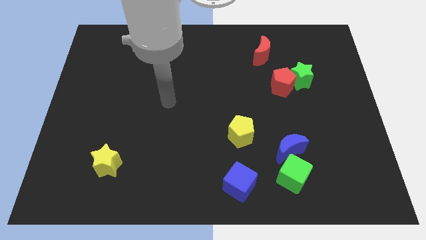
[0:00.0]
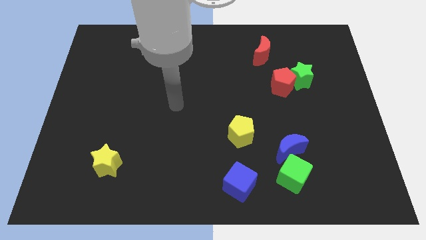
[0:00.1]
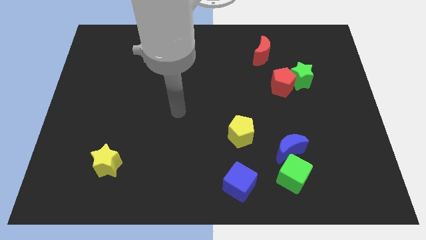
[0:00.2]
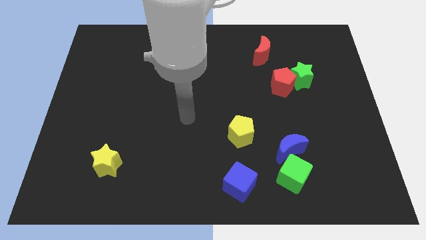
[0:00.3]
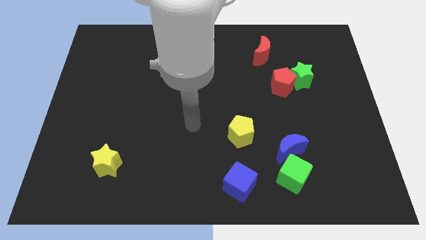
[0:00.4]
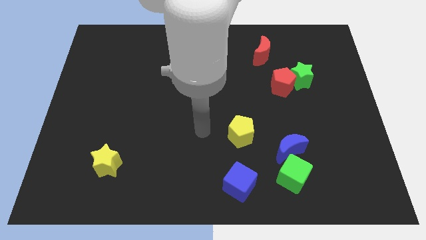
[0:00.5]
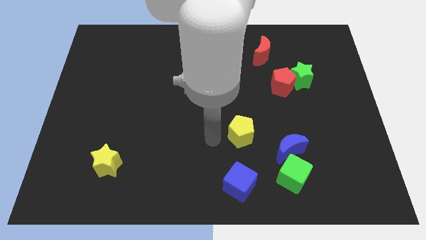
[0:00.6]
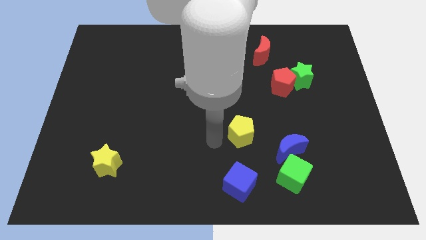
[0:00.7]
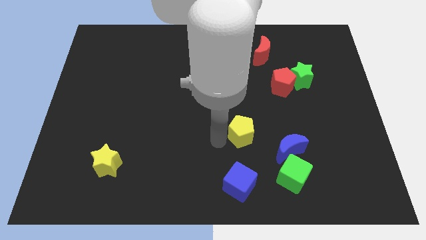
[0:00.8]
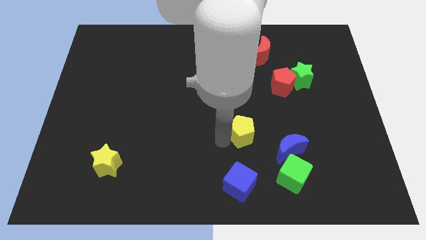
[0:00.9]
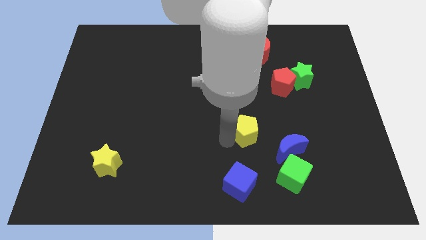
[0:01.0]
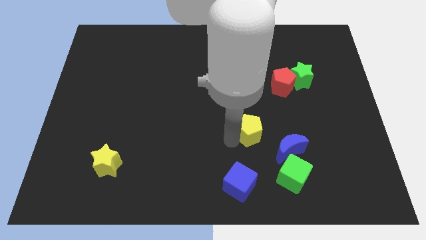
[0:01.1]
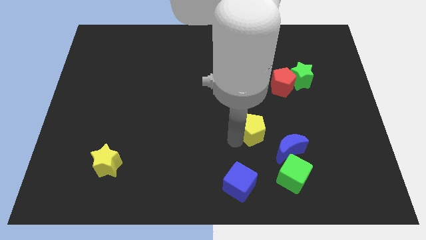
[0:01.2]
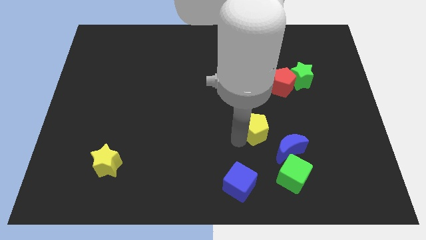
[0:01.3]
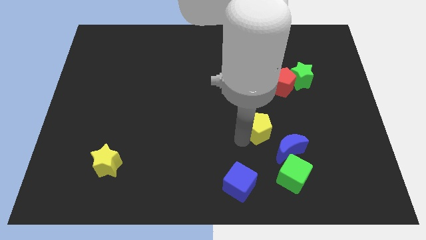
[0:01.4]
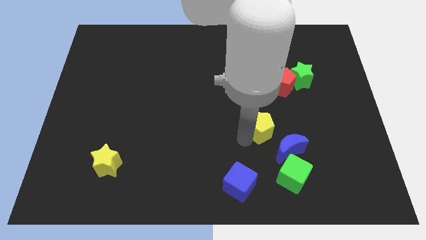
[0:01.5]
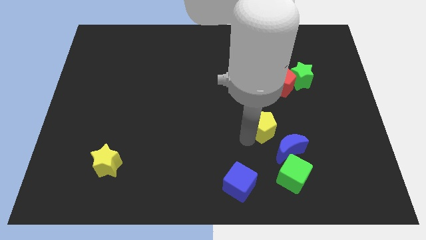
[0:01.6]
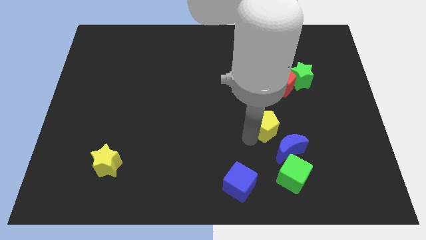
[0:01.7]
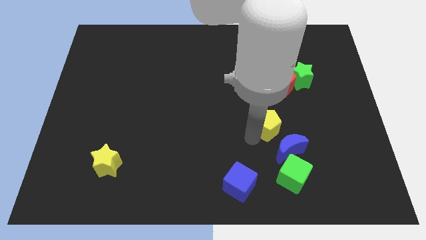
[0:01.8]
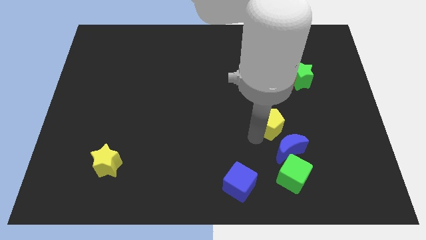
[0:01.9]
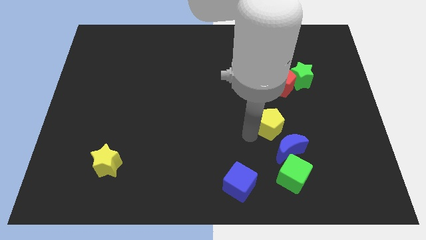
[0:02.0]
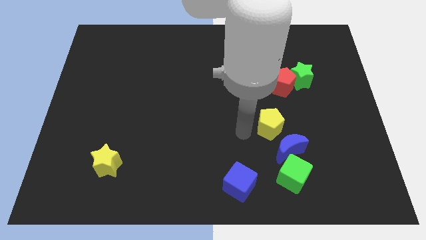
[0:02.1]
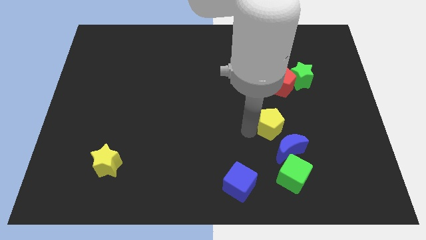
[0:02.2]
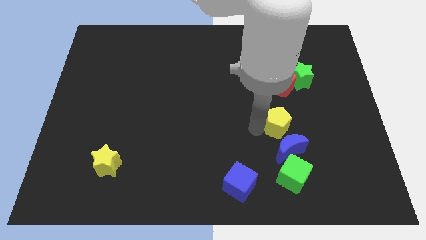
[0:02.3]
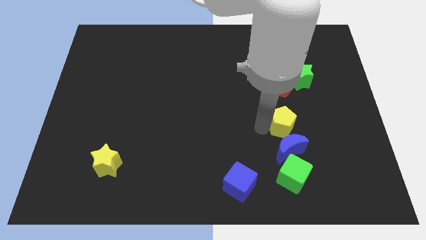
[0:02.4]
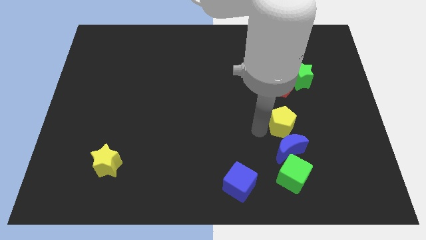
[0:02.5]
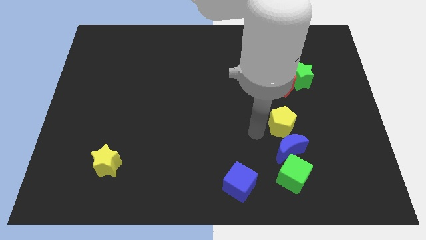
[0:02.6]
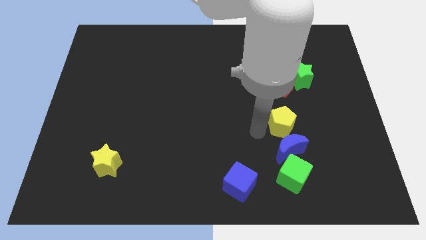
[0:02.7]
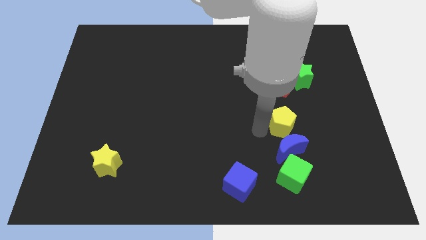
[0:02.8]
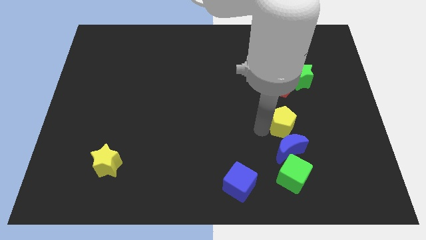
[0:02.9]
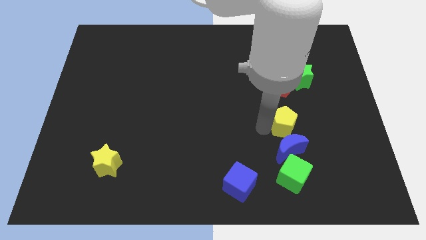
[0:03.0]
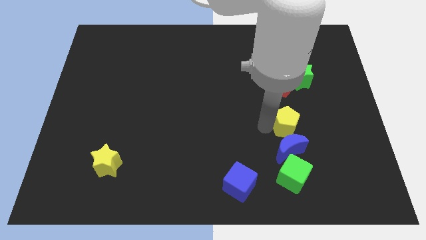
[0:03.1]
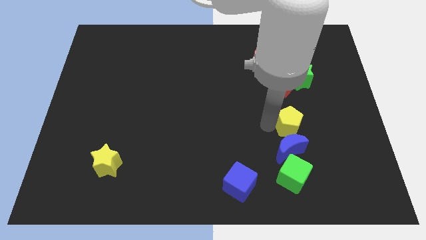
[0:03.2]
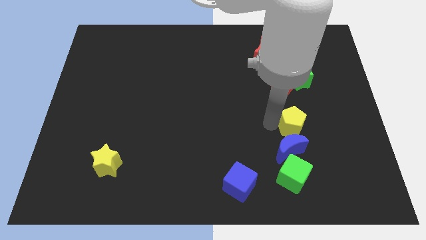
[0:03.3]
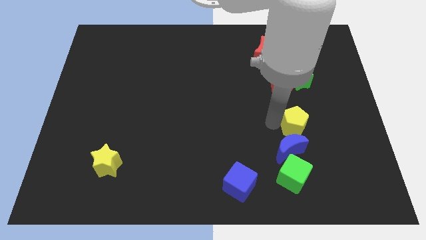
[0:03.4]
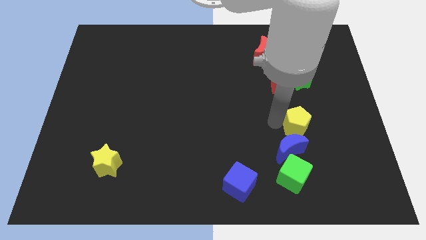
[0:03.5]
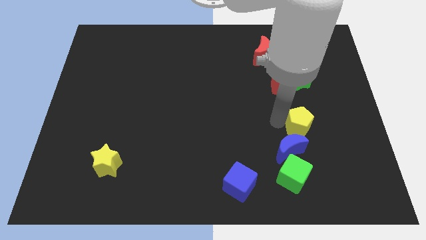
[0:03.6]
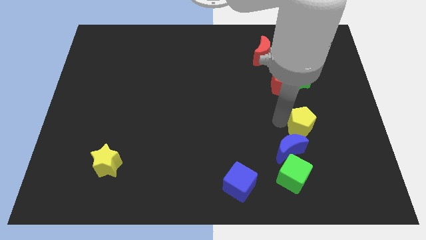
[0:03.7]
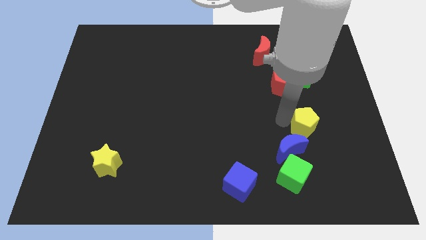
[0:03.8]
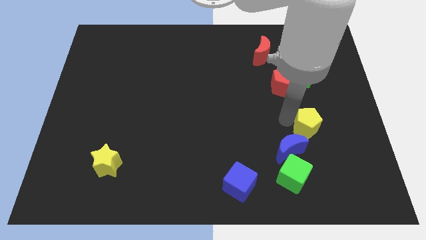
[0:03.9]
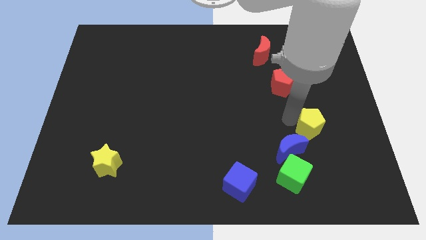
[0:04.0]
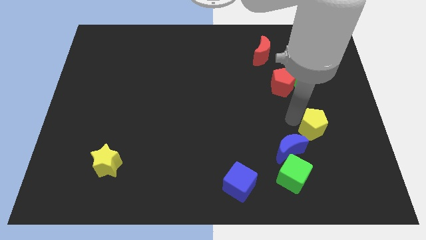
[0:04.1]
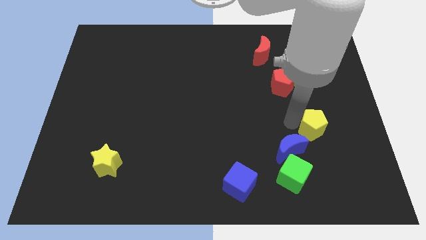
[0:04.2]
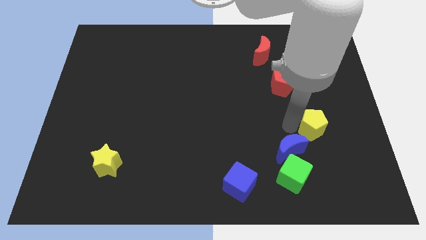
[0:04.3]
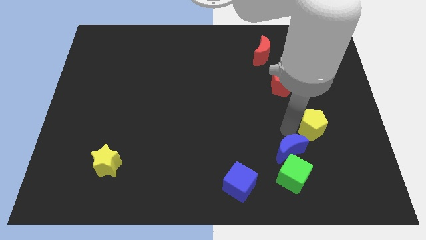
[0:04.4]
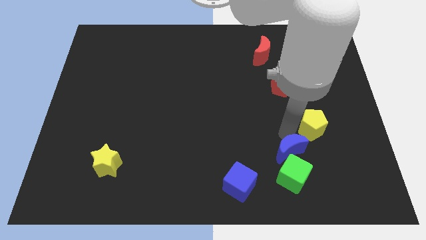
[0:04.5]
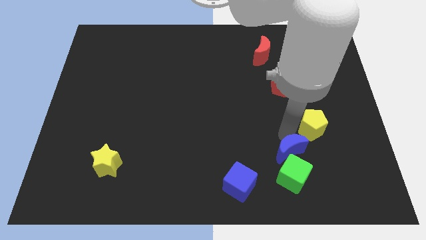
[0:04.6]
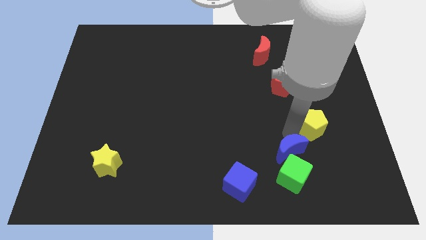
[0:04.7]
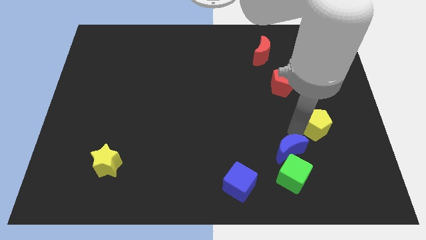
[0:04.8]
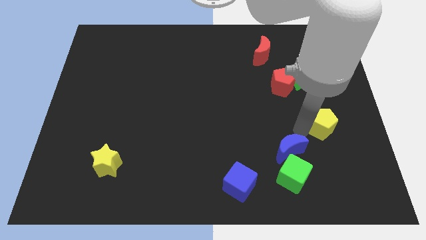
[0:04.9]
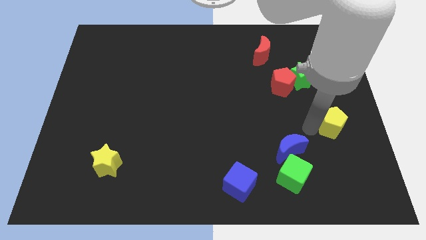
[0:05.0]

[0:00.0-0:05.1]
push the yellow pentagon to the center right

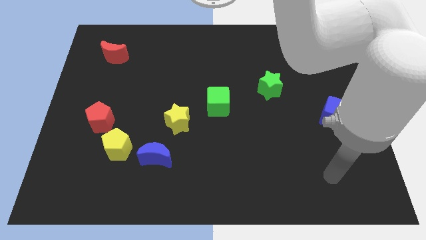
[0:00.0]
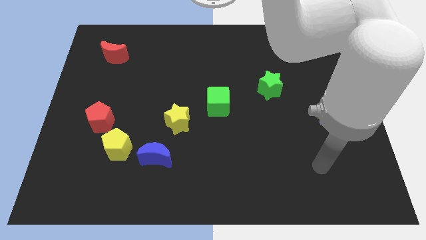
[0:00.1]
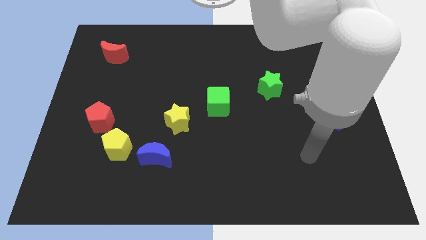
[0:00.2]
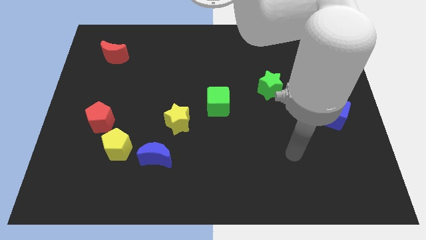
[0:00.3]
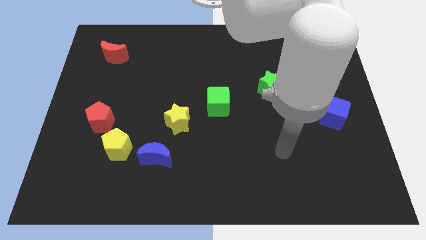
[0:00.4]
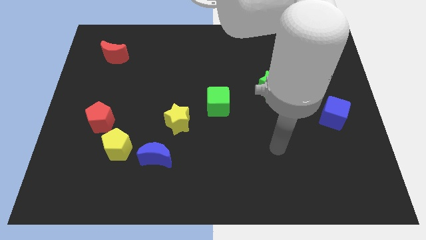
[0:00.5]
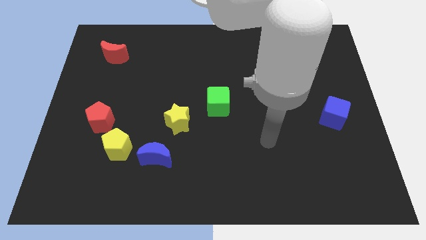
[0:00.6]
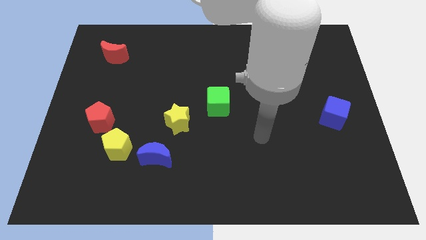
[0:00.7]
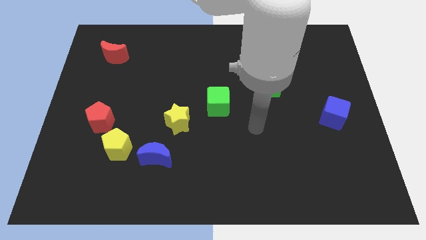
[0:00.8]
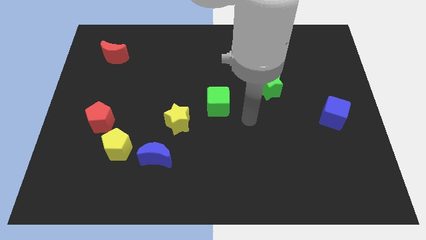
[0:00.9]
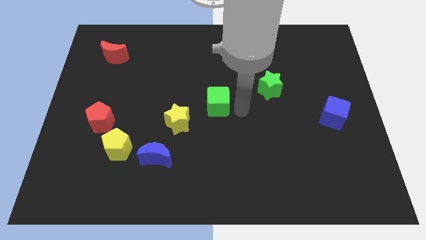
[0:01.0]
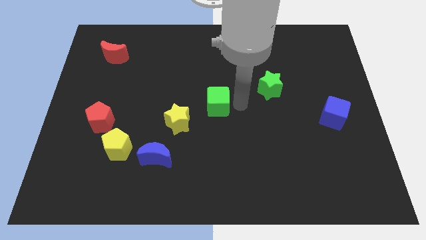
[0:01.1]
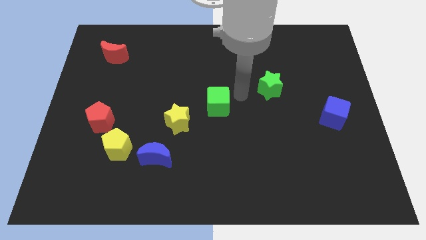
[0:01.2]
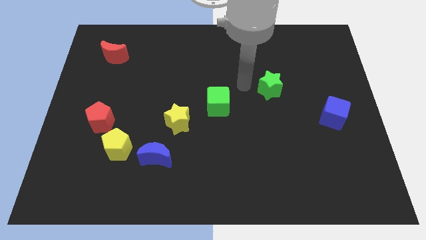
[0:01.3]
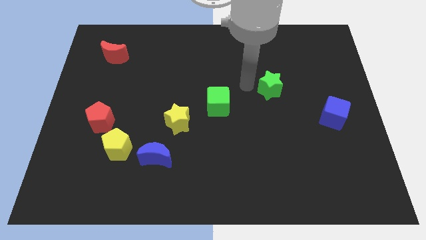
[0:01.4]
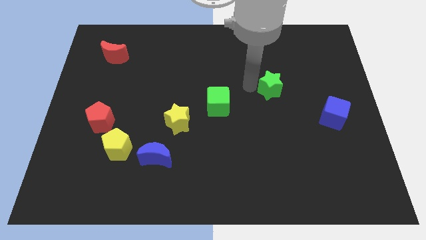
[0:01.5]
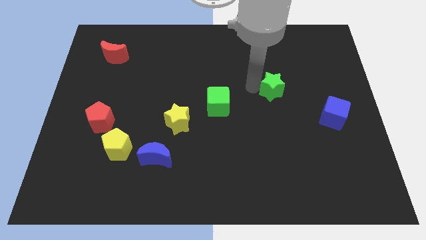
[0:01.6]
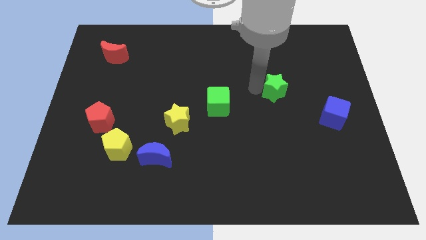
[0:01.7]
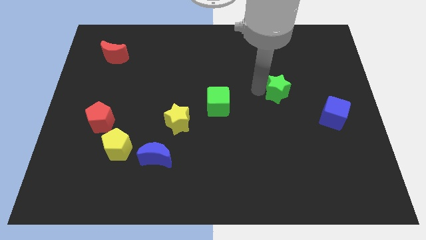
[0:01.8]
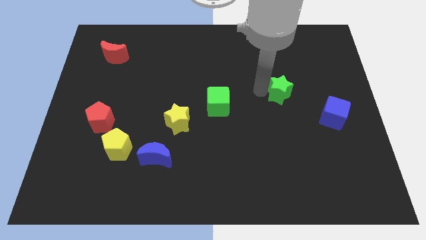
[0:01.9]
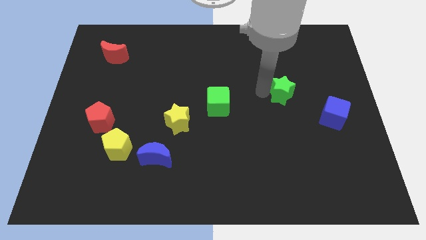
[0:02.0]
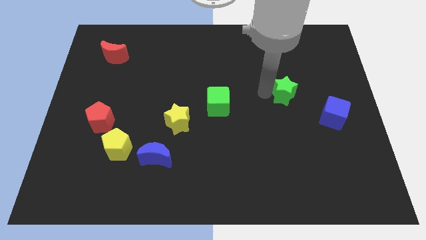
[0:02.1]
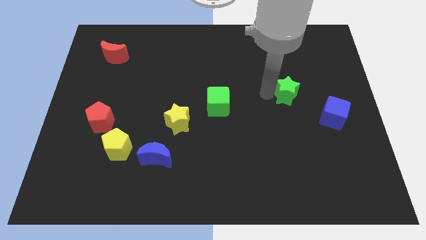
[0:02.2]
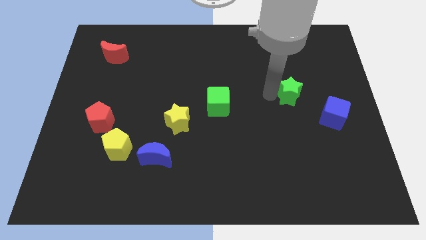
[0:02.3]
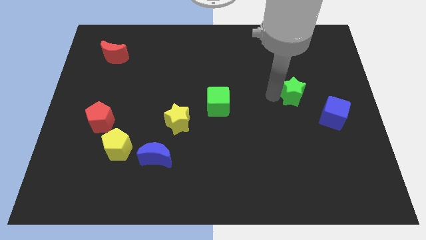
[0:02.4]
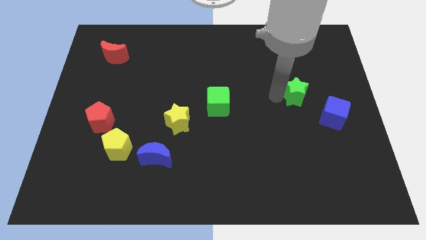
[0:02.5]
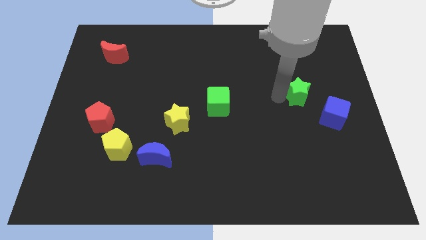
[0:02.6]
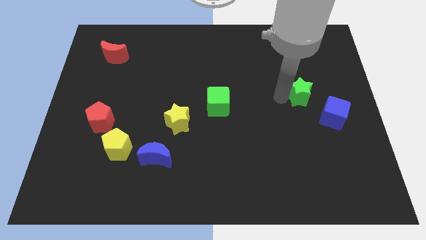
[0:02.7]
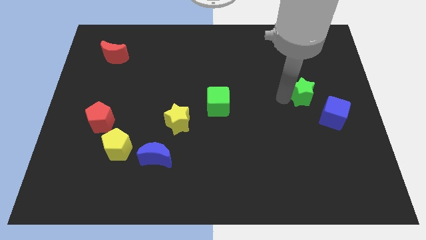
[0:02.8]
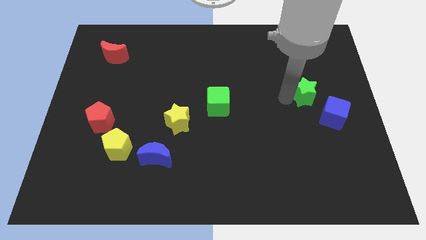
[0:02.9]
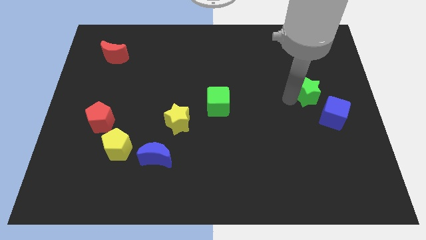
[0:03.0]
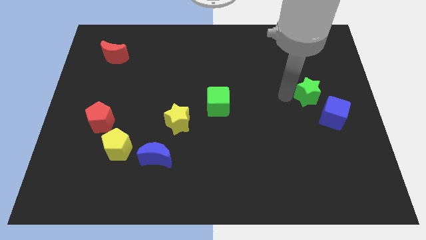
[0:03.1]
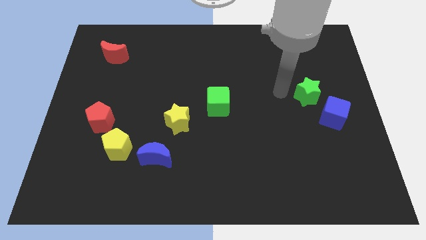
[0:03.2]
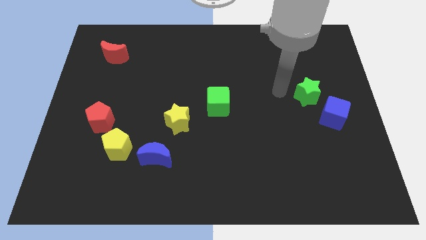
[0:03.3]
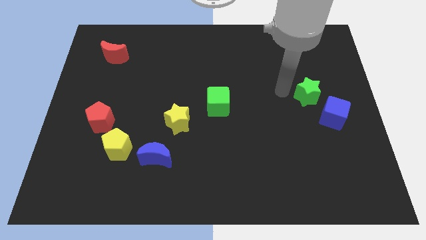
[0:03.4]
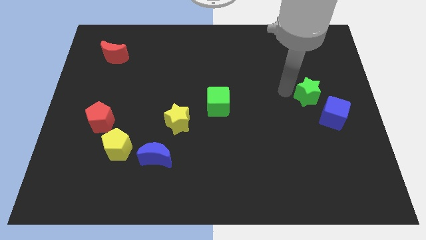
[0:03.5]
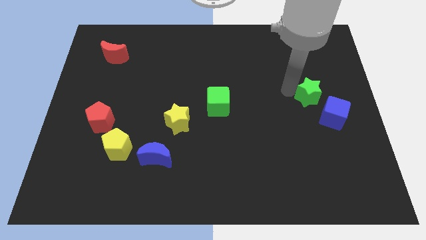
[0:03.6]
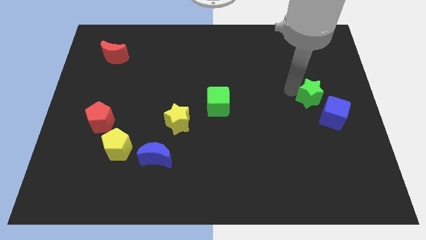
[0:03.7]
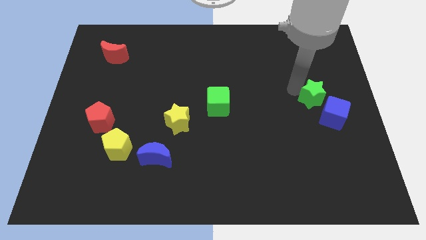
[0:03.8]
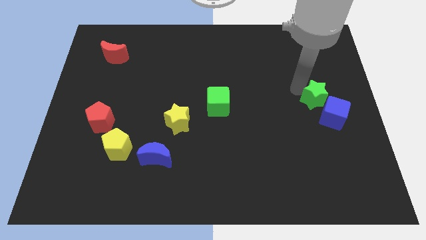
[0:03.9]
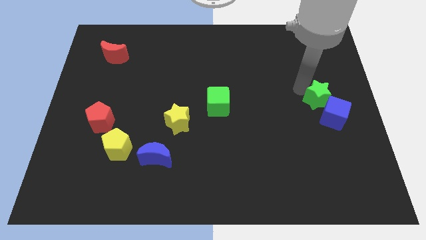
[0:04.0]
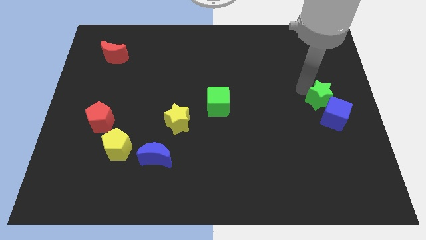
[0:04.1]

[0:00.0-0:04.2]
push the green star to the center right
